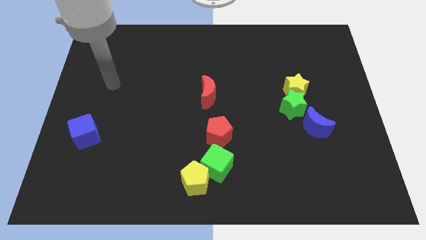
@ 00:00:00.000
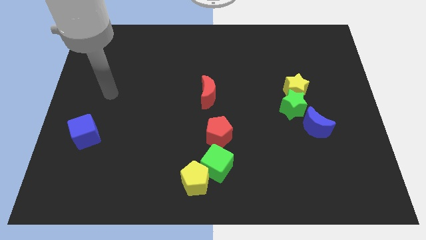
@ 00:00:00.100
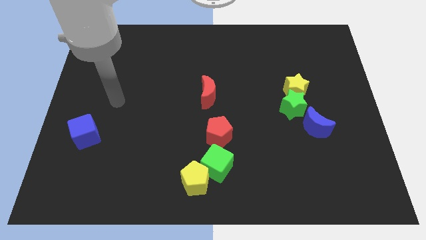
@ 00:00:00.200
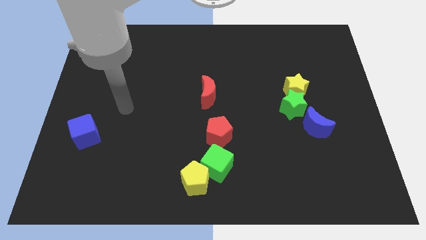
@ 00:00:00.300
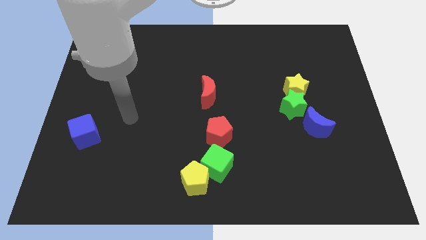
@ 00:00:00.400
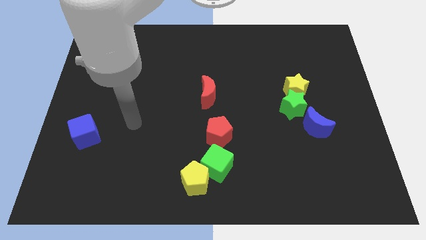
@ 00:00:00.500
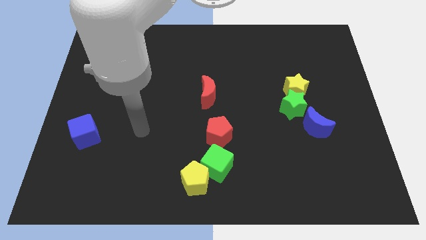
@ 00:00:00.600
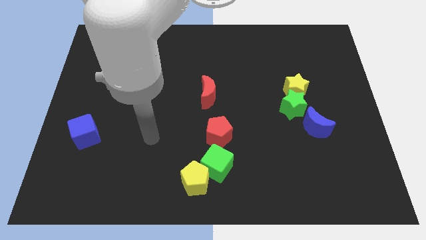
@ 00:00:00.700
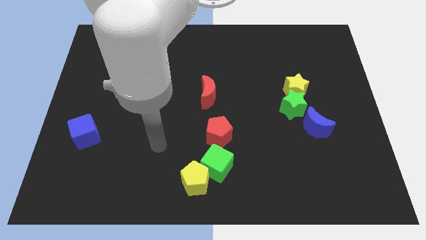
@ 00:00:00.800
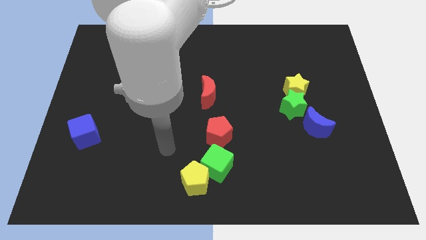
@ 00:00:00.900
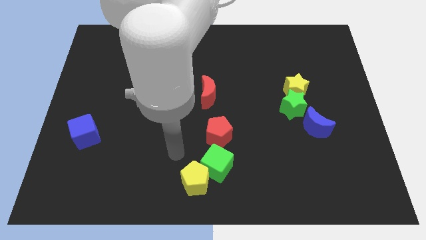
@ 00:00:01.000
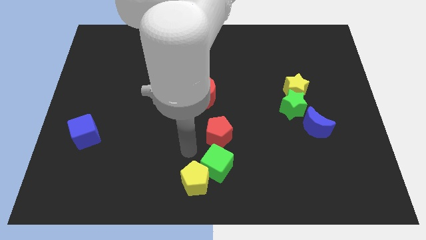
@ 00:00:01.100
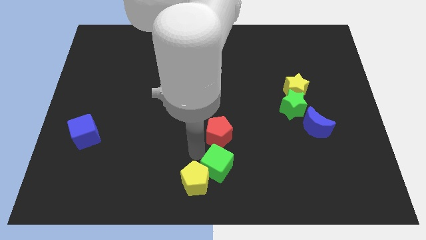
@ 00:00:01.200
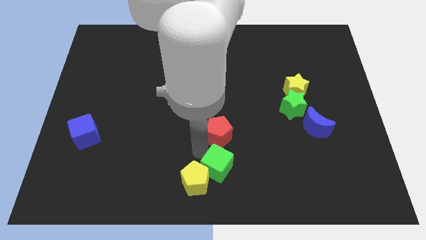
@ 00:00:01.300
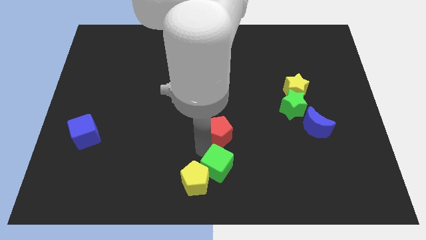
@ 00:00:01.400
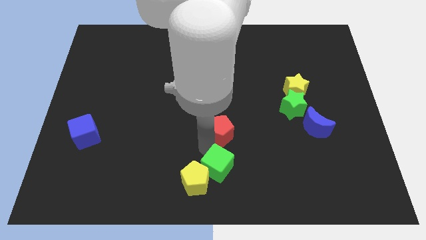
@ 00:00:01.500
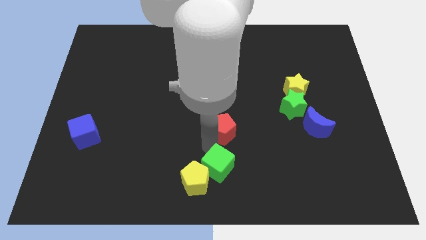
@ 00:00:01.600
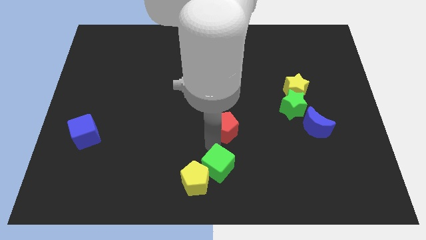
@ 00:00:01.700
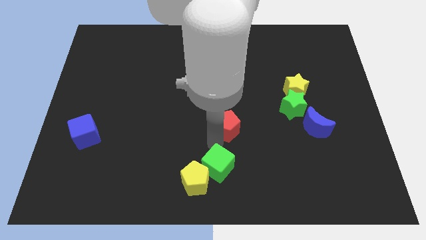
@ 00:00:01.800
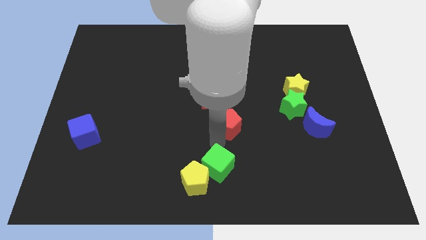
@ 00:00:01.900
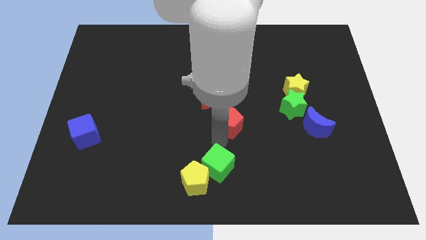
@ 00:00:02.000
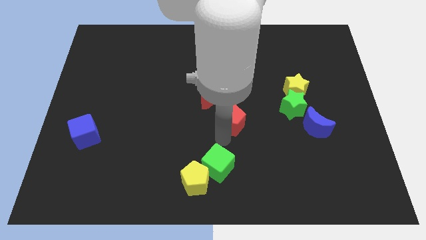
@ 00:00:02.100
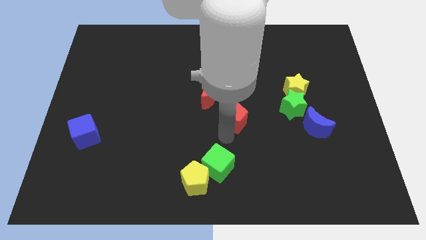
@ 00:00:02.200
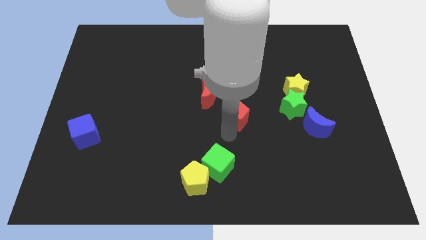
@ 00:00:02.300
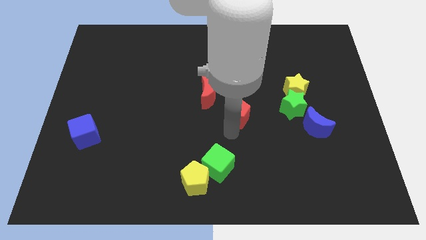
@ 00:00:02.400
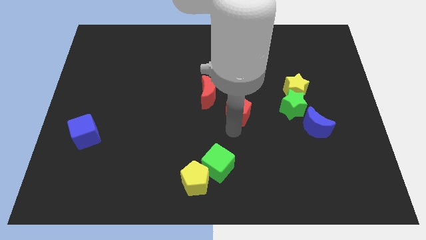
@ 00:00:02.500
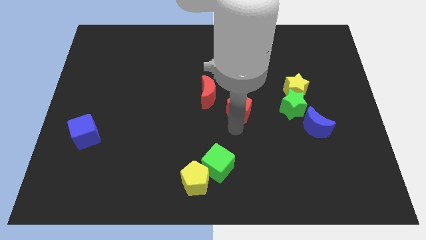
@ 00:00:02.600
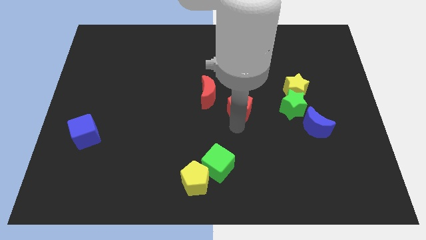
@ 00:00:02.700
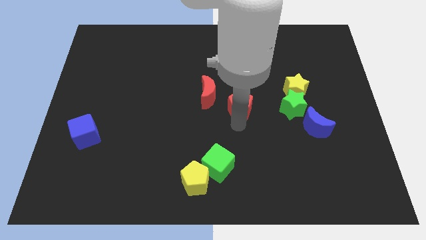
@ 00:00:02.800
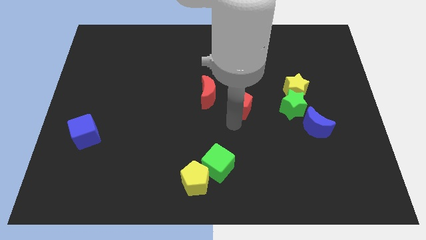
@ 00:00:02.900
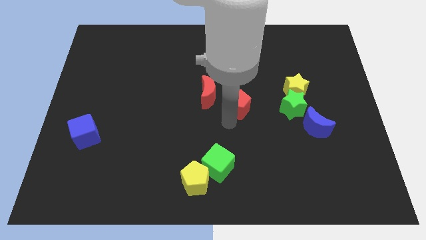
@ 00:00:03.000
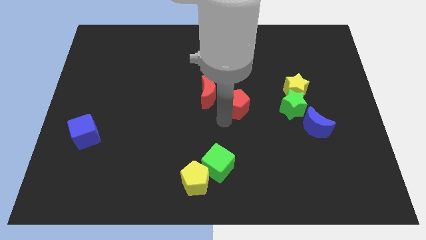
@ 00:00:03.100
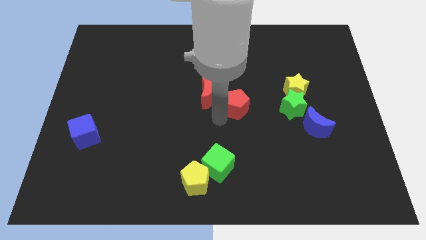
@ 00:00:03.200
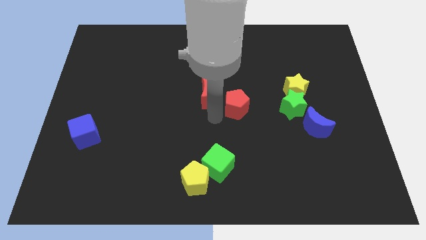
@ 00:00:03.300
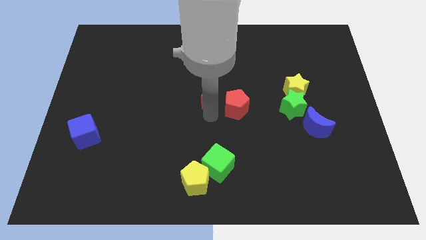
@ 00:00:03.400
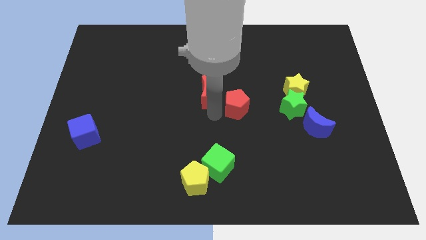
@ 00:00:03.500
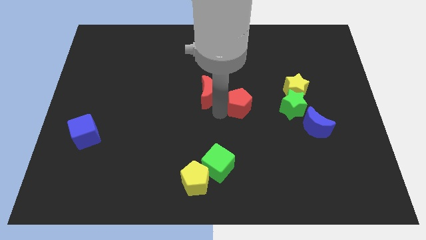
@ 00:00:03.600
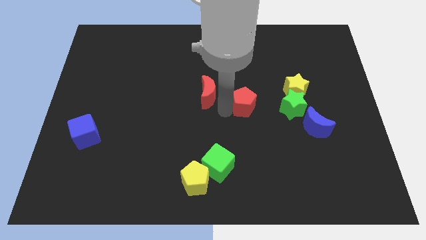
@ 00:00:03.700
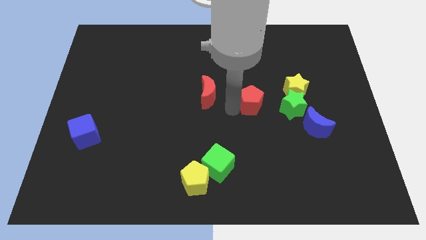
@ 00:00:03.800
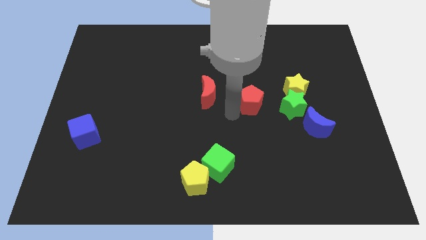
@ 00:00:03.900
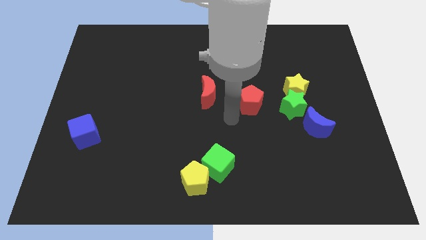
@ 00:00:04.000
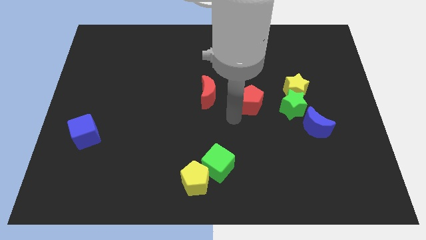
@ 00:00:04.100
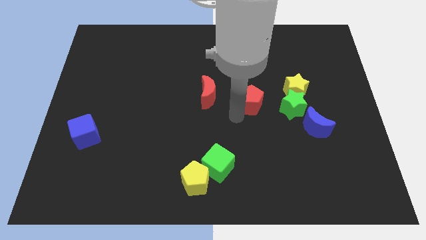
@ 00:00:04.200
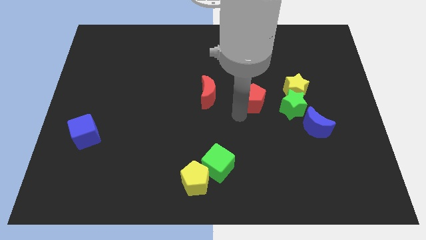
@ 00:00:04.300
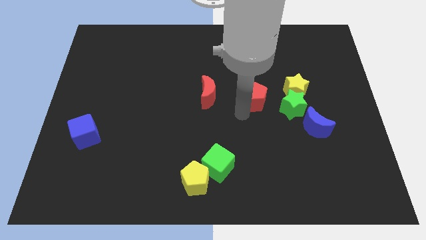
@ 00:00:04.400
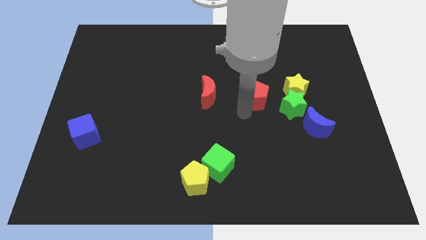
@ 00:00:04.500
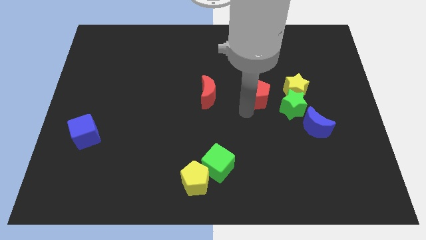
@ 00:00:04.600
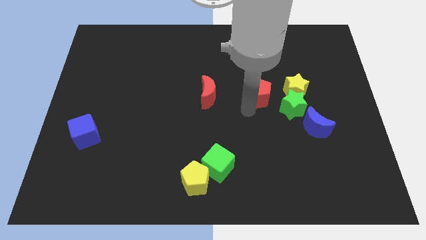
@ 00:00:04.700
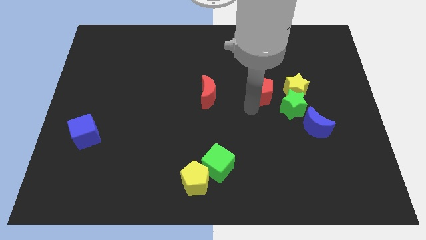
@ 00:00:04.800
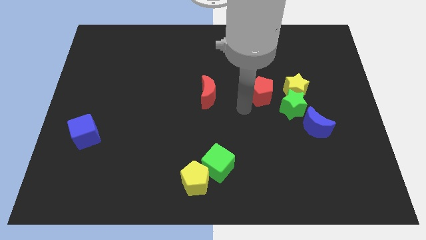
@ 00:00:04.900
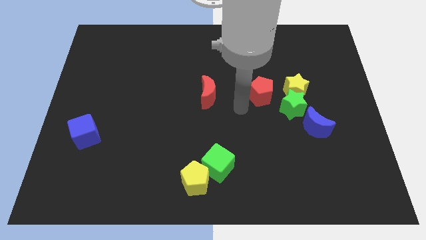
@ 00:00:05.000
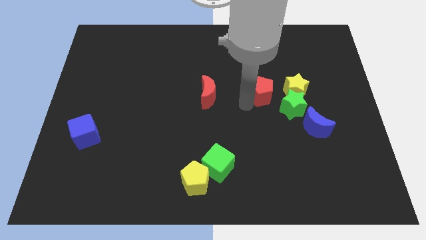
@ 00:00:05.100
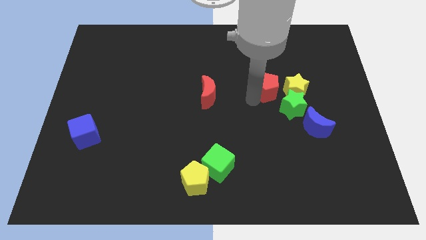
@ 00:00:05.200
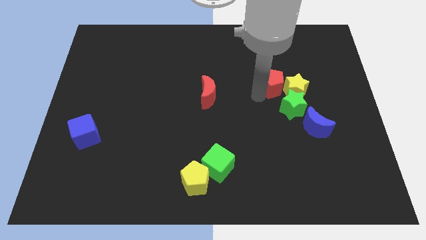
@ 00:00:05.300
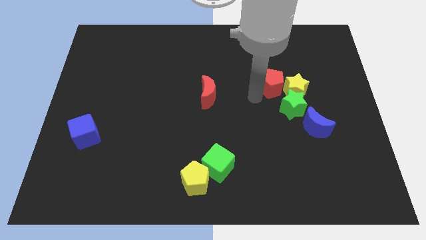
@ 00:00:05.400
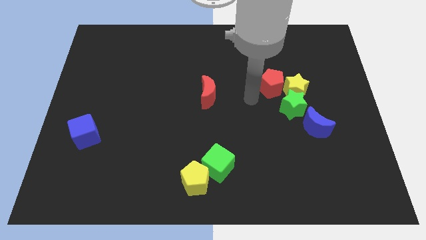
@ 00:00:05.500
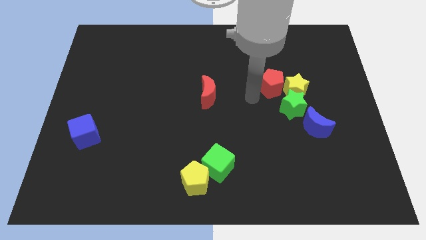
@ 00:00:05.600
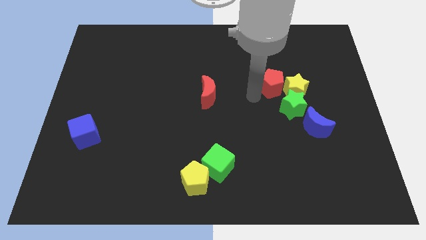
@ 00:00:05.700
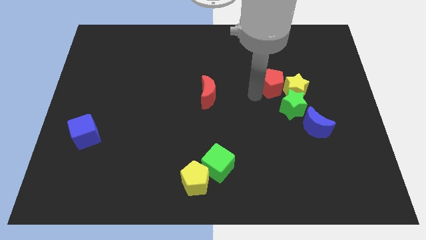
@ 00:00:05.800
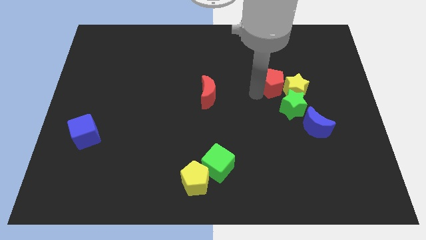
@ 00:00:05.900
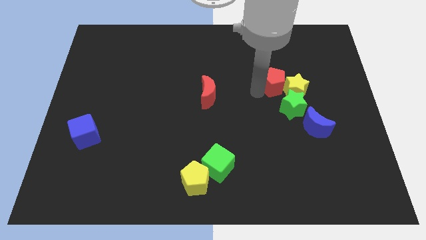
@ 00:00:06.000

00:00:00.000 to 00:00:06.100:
slide the red pentagon up and then to the right

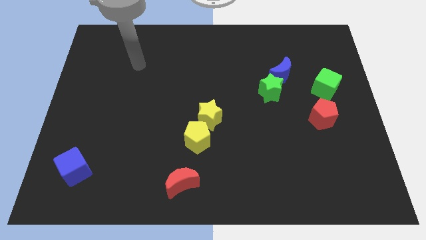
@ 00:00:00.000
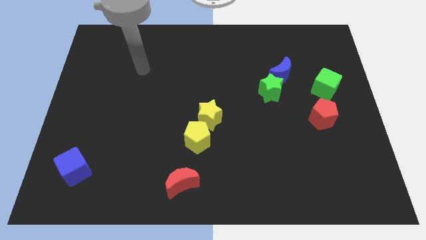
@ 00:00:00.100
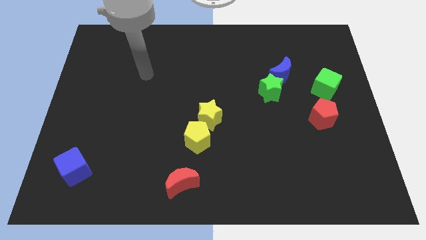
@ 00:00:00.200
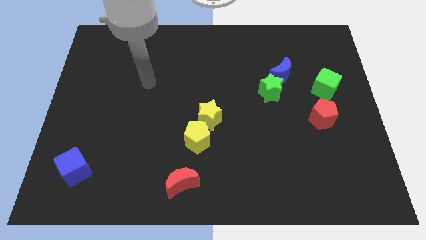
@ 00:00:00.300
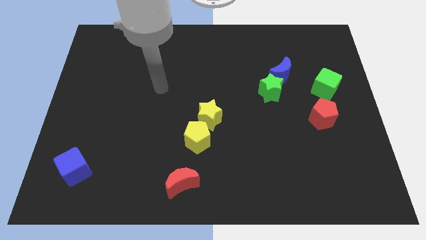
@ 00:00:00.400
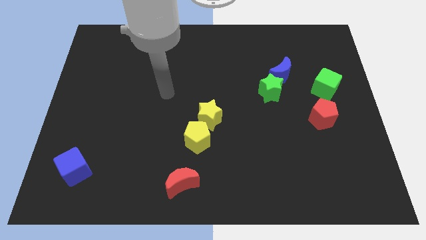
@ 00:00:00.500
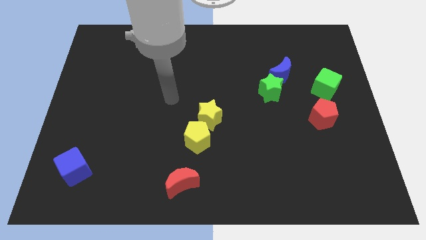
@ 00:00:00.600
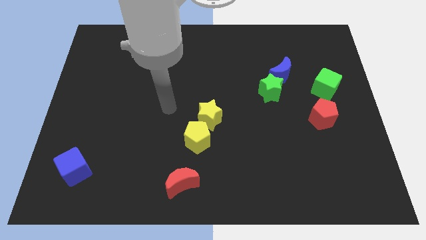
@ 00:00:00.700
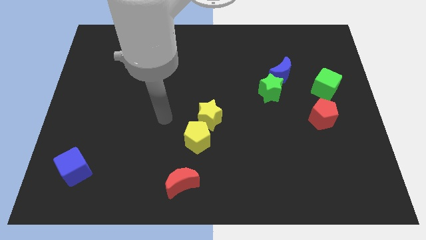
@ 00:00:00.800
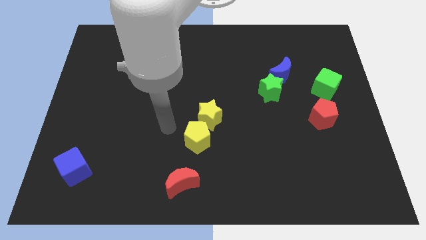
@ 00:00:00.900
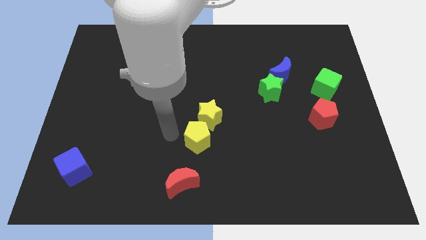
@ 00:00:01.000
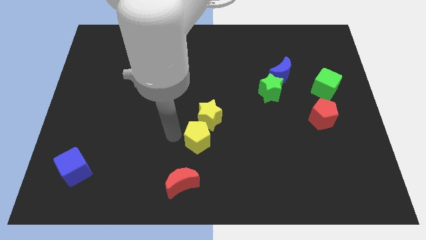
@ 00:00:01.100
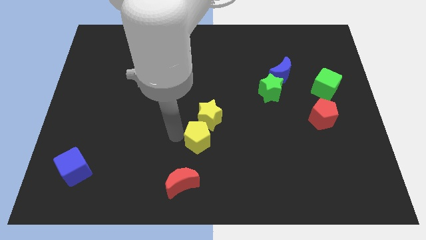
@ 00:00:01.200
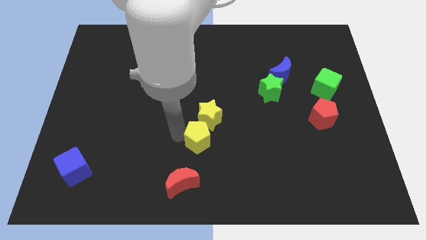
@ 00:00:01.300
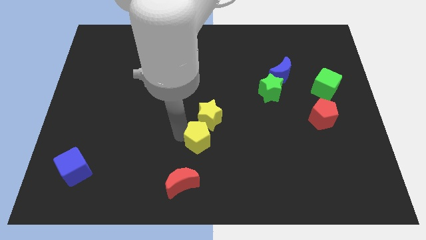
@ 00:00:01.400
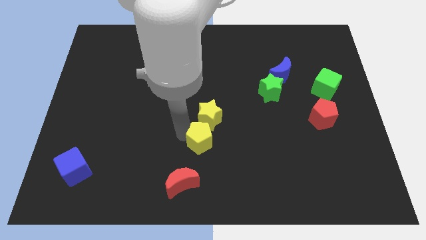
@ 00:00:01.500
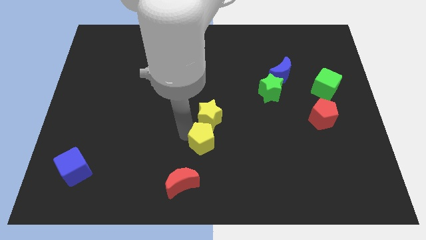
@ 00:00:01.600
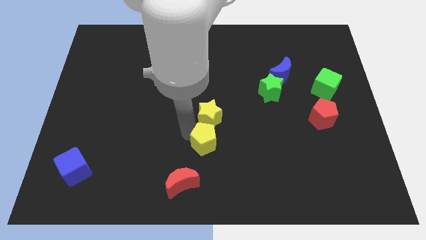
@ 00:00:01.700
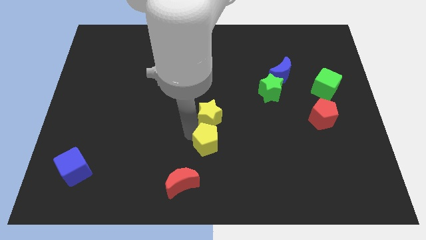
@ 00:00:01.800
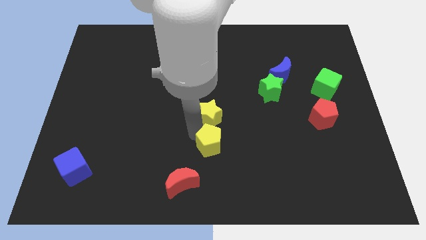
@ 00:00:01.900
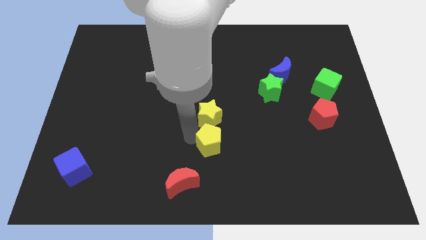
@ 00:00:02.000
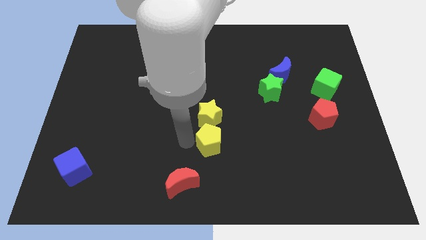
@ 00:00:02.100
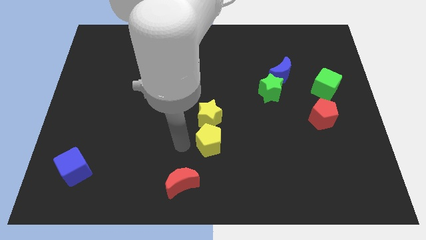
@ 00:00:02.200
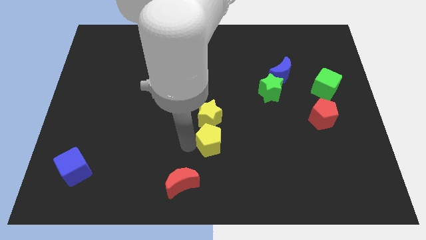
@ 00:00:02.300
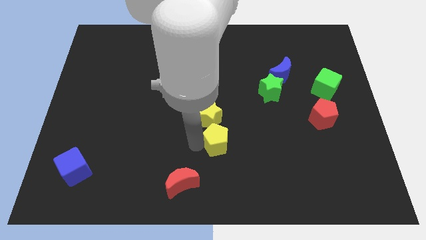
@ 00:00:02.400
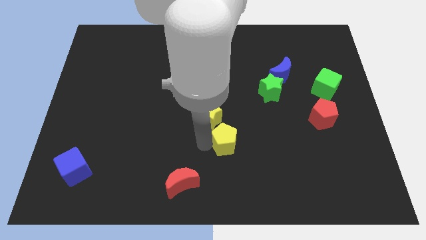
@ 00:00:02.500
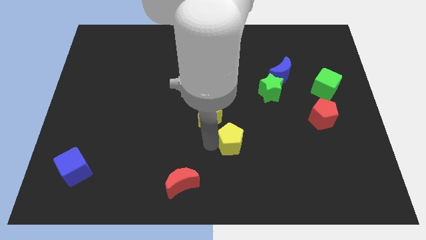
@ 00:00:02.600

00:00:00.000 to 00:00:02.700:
slide the yellow pentagon a bit to the right
